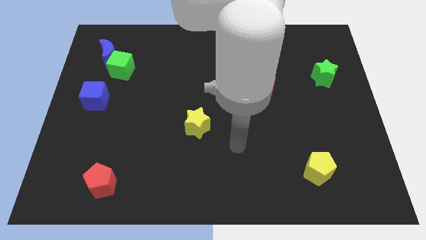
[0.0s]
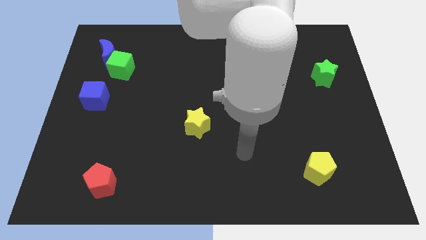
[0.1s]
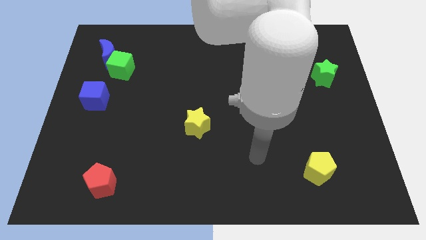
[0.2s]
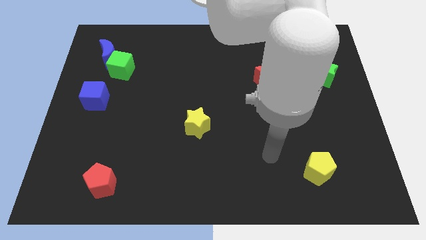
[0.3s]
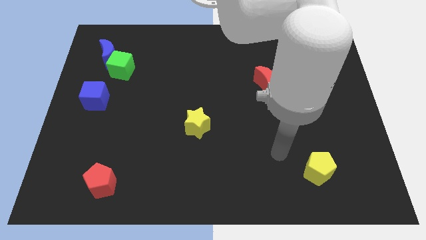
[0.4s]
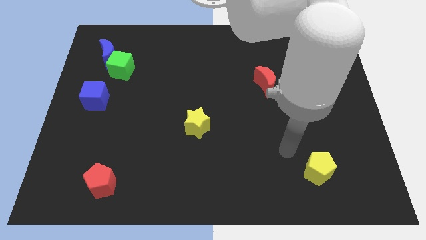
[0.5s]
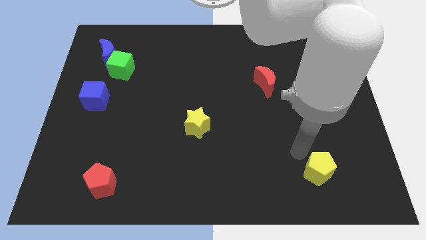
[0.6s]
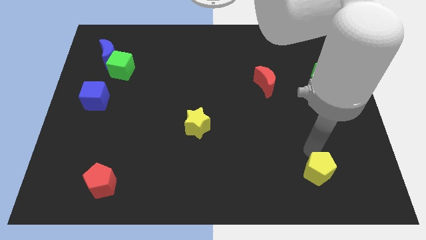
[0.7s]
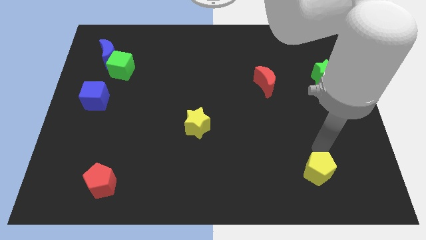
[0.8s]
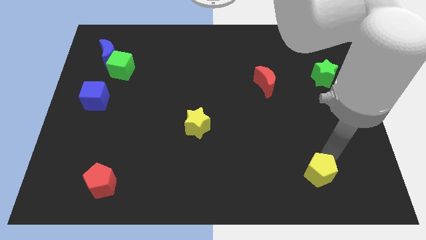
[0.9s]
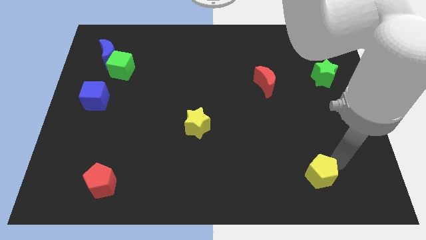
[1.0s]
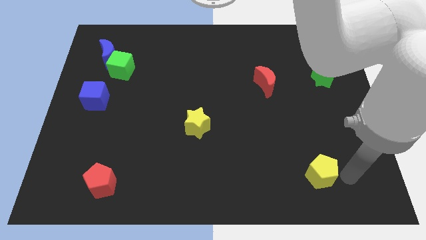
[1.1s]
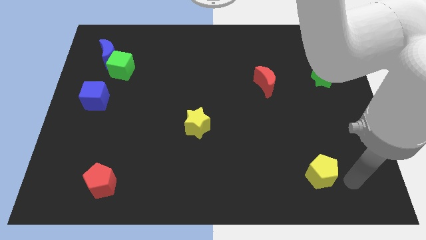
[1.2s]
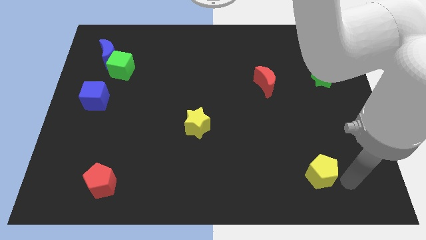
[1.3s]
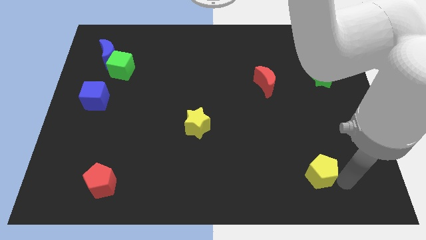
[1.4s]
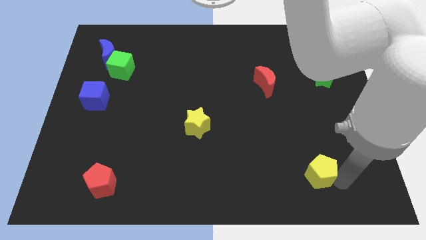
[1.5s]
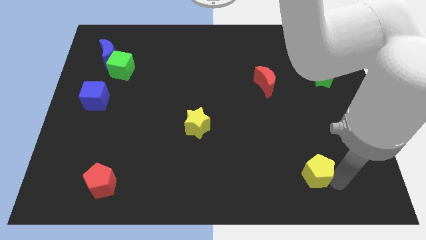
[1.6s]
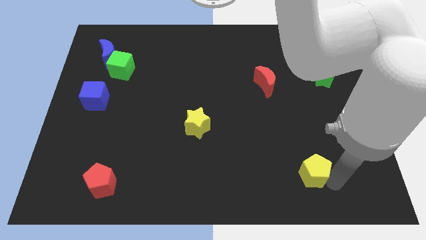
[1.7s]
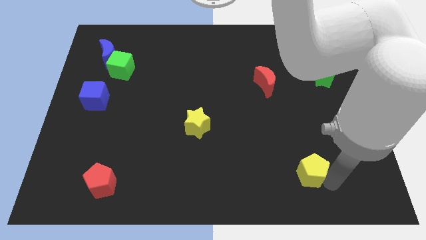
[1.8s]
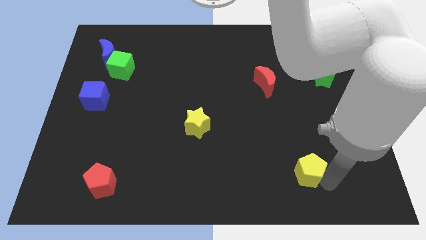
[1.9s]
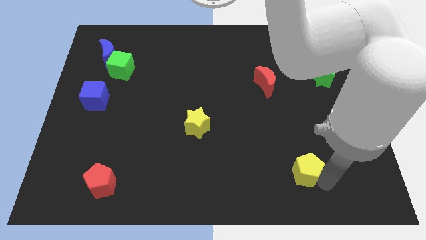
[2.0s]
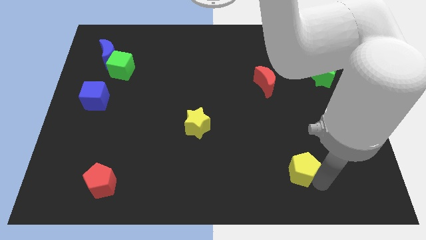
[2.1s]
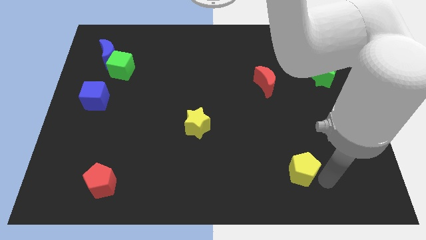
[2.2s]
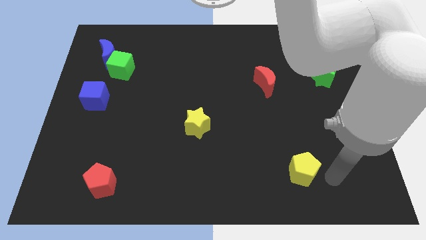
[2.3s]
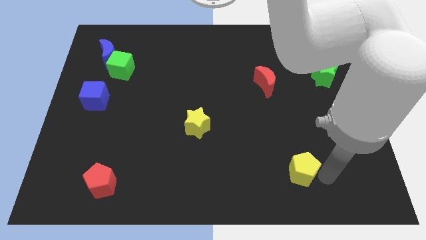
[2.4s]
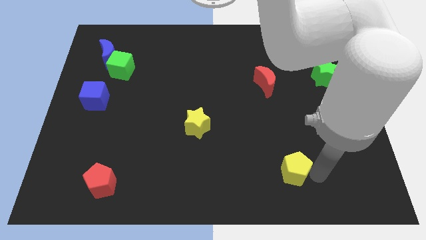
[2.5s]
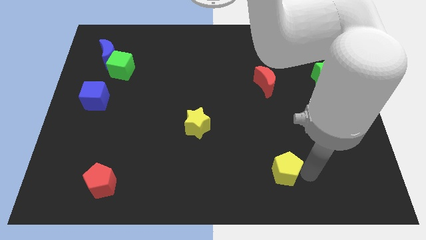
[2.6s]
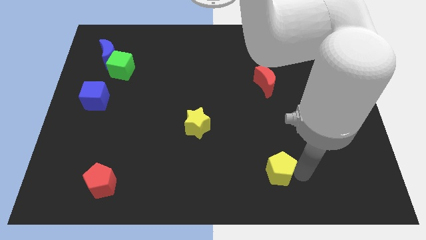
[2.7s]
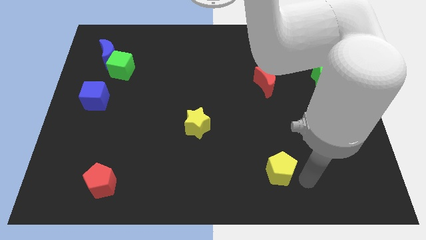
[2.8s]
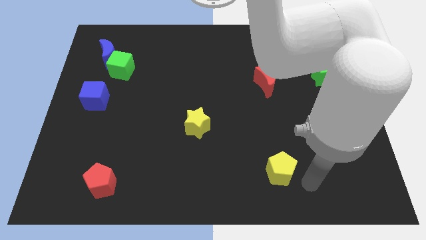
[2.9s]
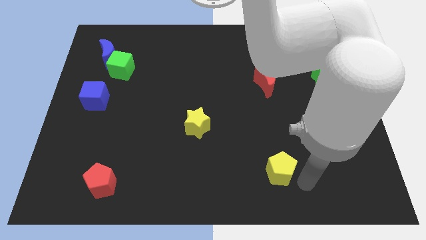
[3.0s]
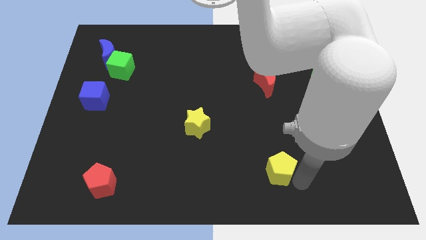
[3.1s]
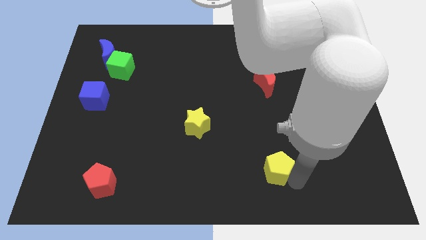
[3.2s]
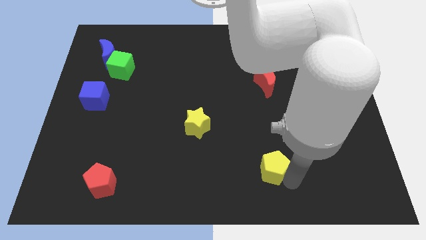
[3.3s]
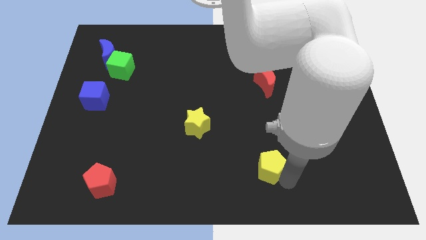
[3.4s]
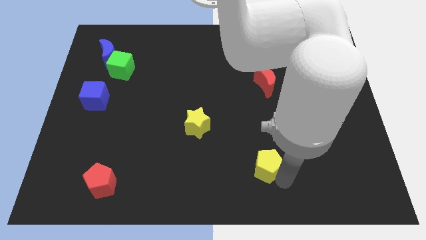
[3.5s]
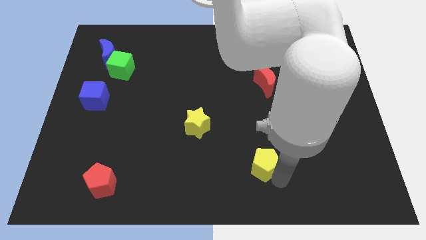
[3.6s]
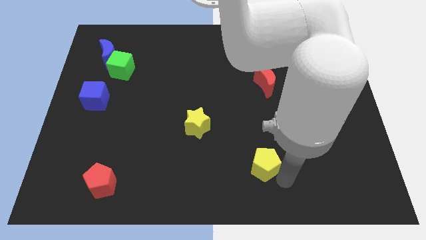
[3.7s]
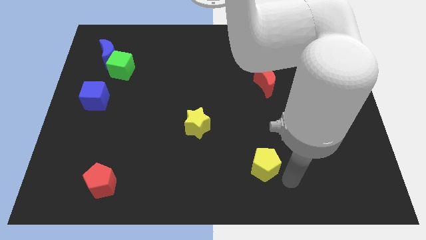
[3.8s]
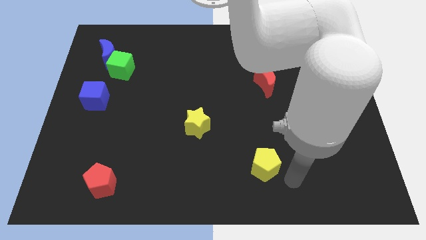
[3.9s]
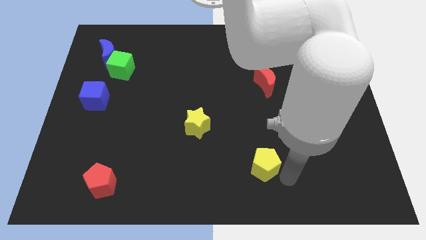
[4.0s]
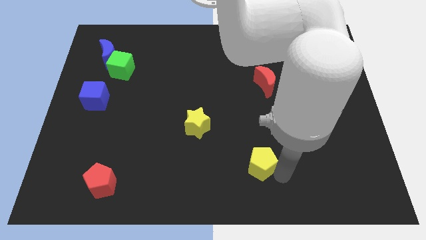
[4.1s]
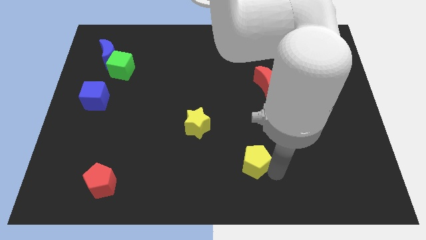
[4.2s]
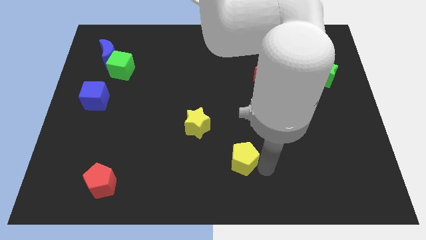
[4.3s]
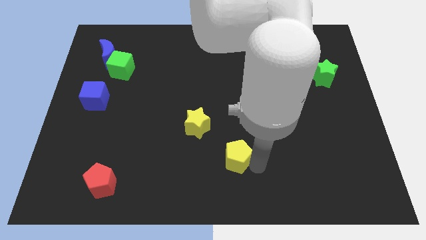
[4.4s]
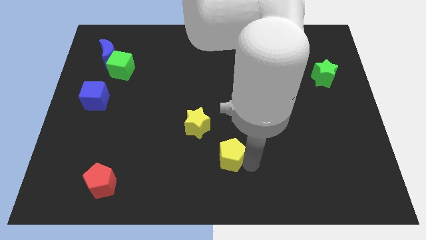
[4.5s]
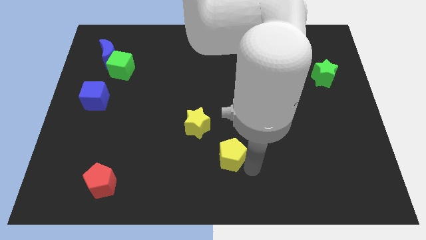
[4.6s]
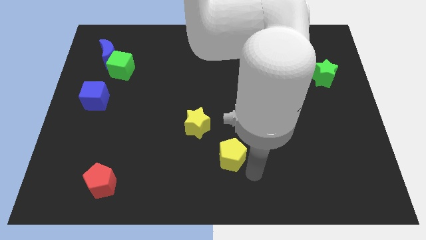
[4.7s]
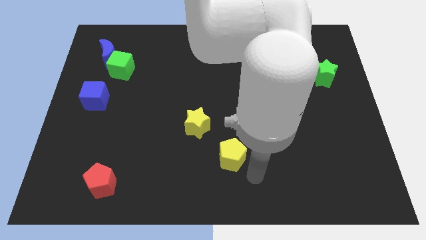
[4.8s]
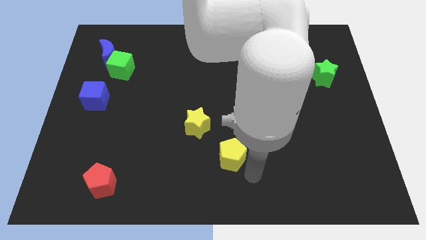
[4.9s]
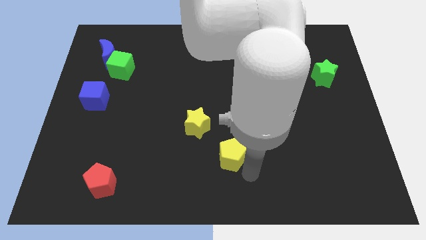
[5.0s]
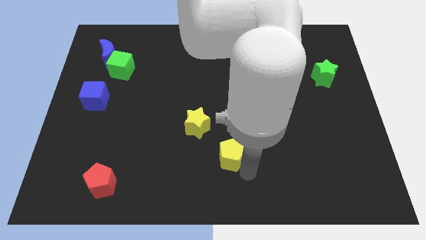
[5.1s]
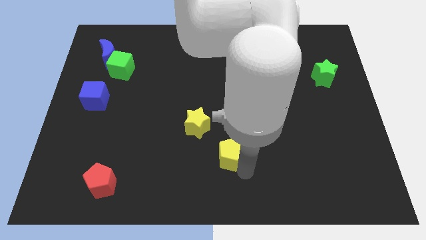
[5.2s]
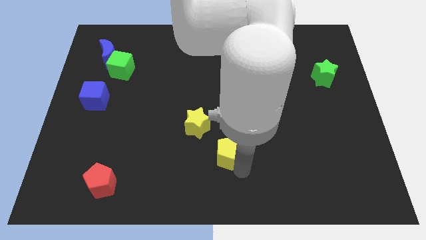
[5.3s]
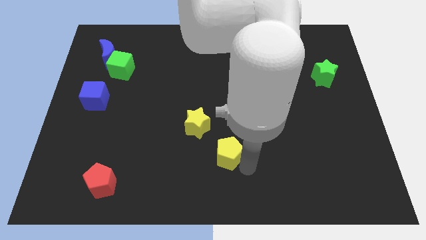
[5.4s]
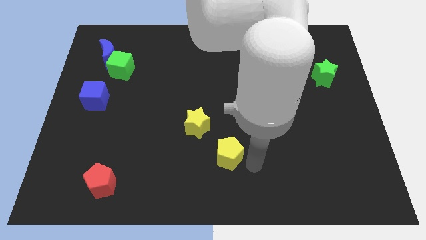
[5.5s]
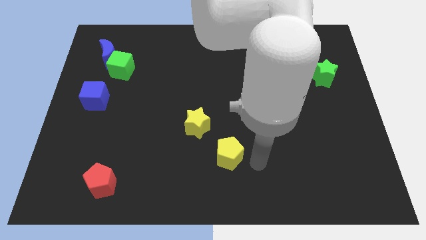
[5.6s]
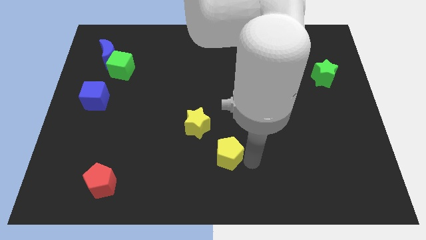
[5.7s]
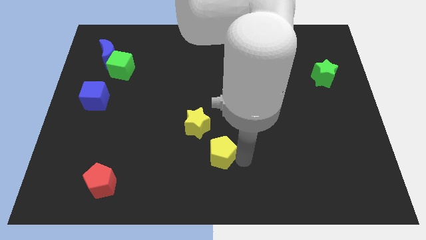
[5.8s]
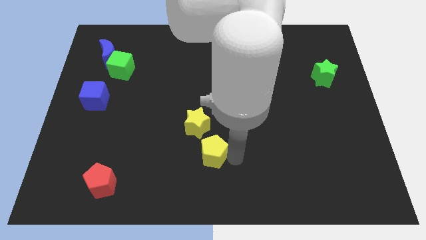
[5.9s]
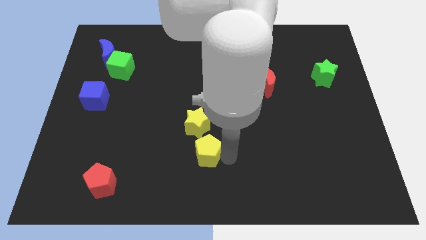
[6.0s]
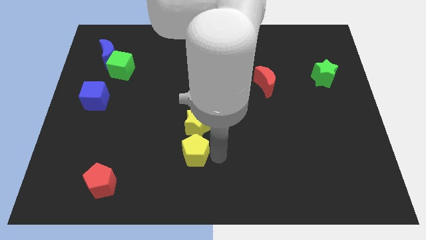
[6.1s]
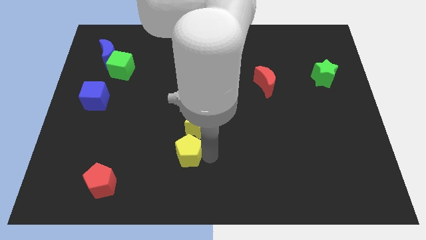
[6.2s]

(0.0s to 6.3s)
push the yellow pentagon to the bottom left of the yellow star
